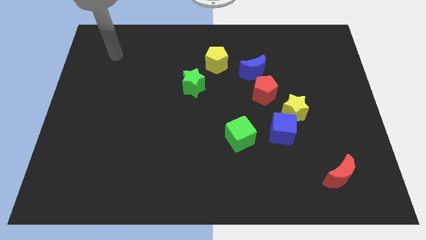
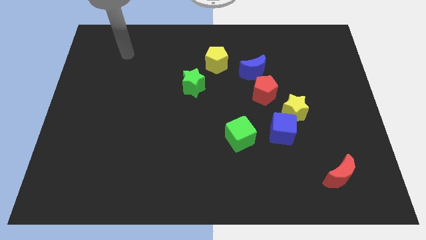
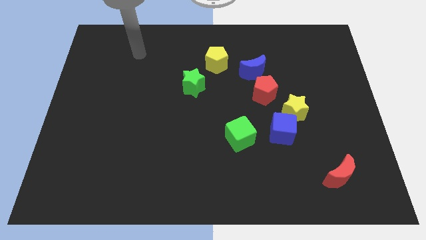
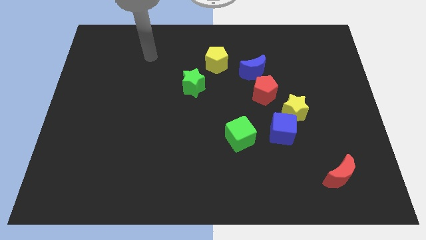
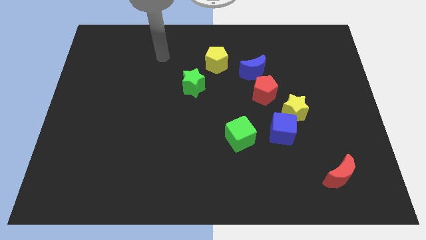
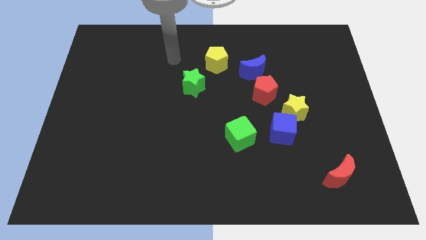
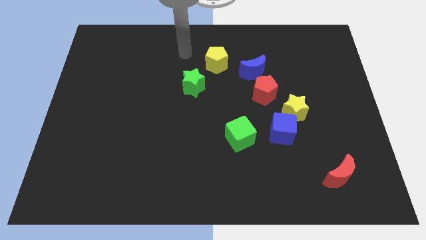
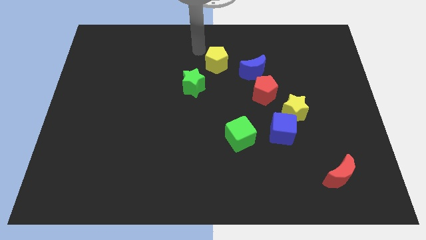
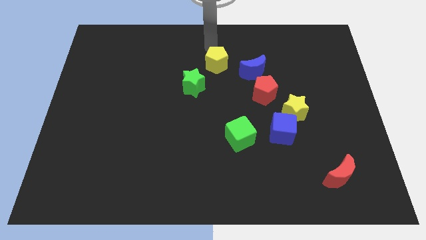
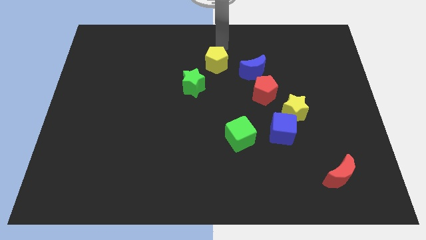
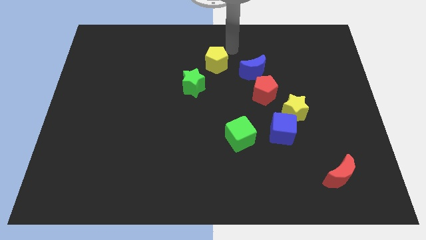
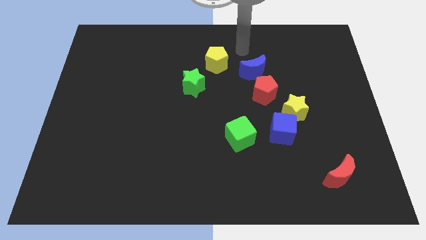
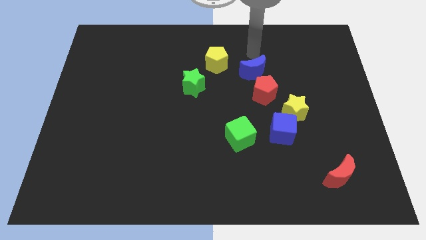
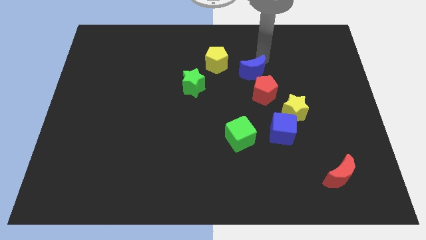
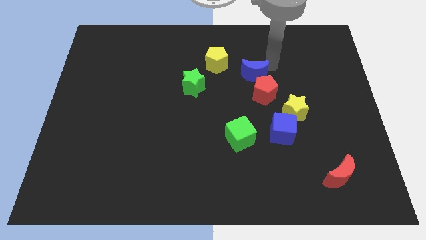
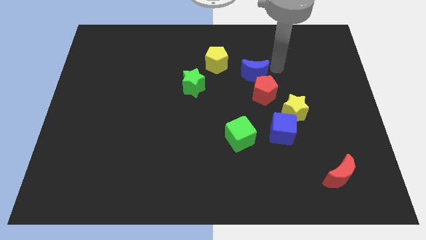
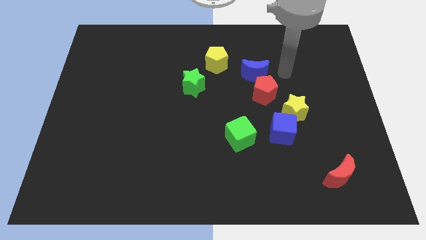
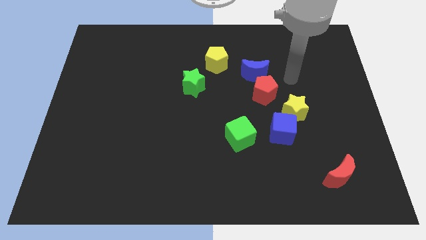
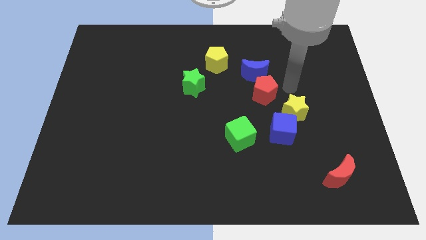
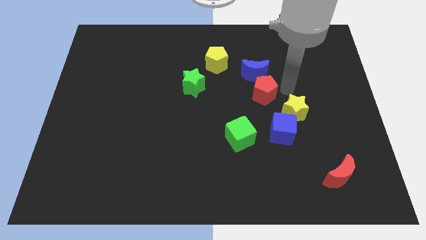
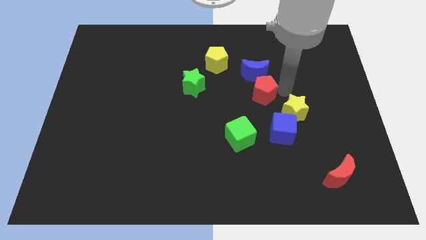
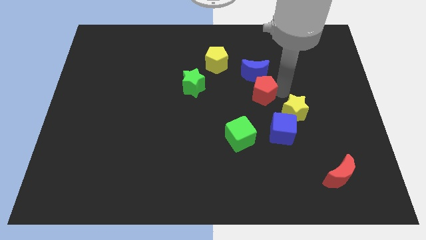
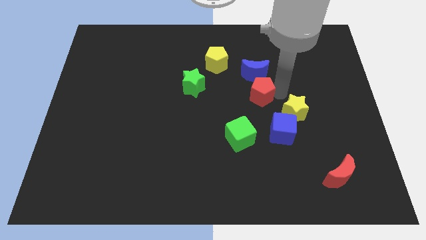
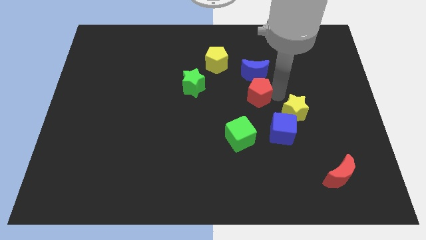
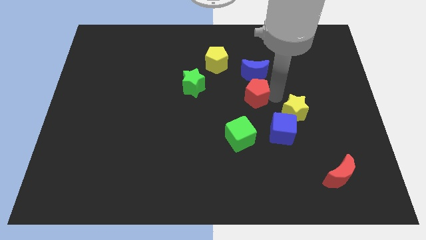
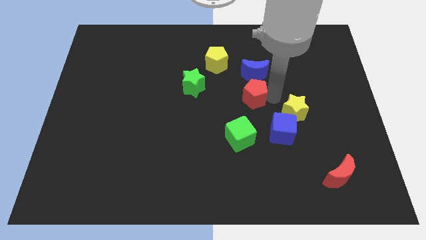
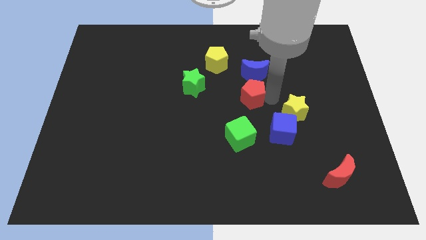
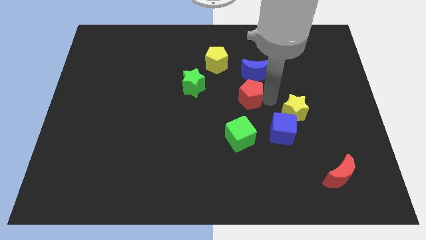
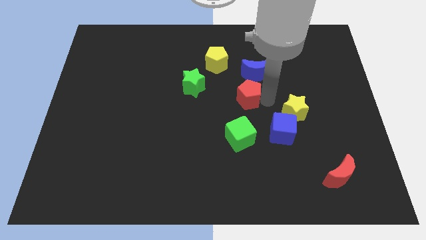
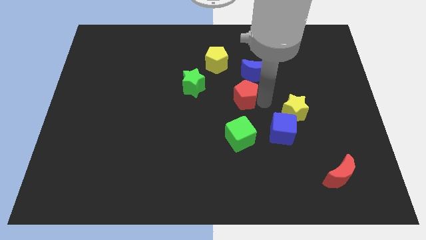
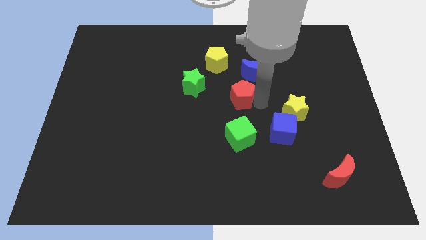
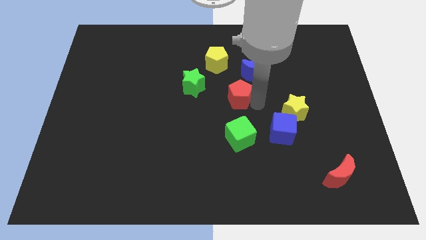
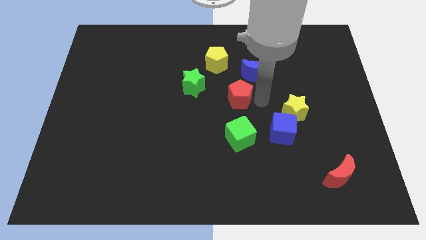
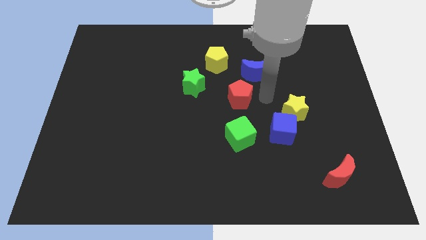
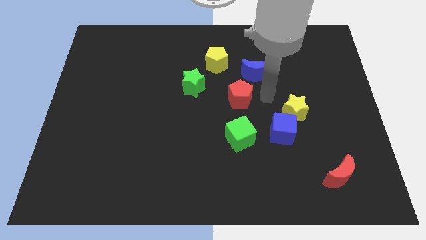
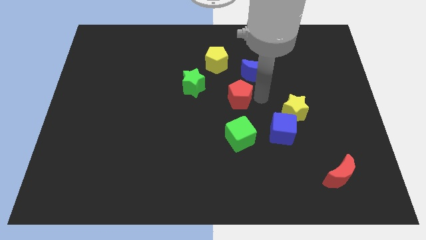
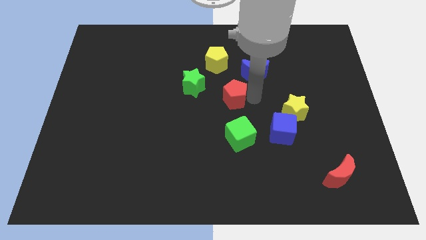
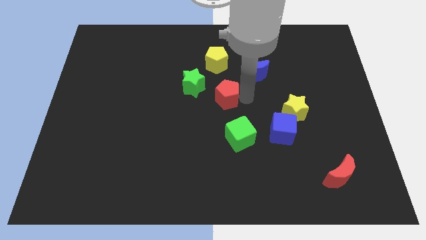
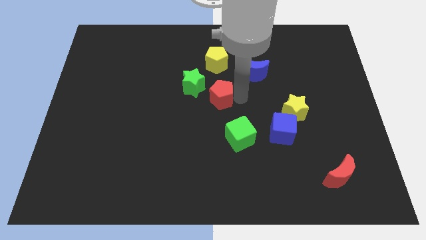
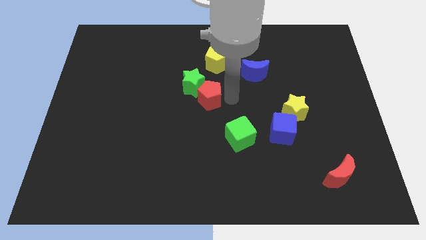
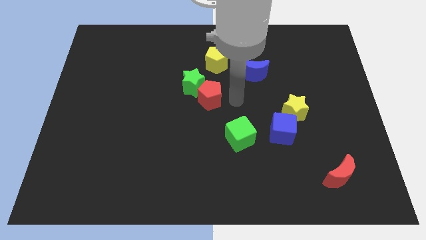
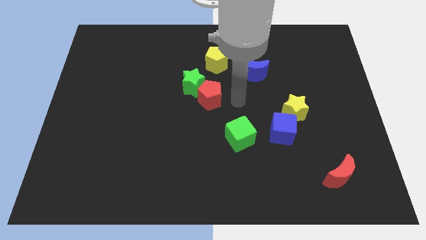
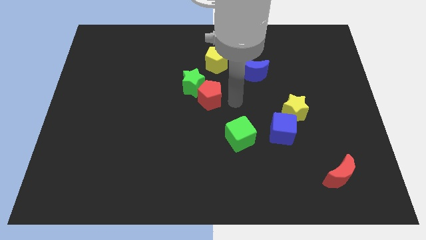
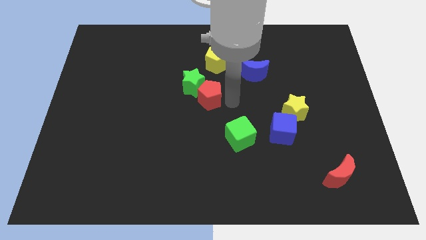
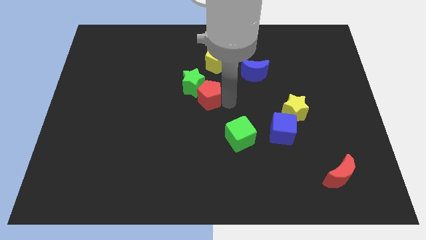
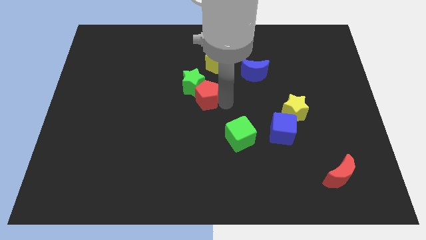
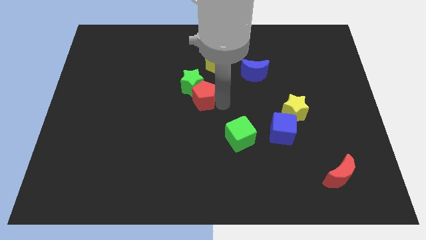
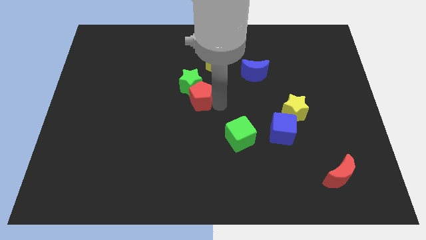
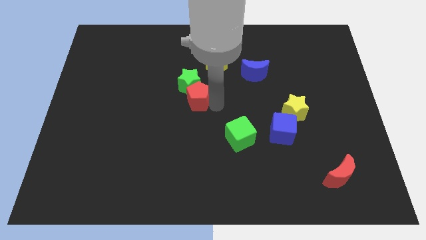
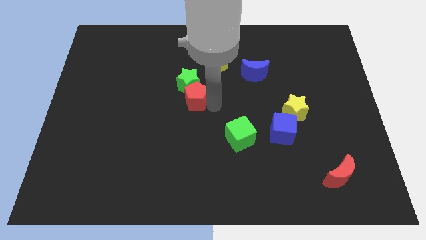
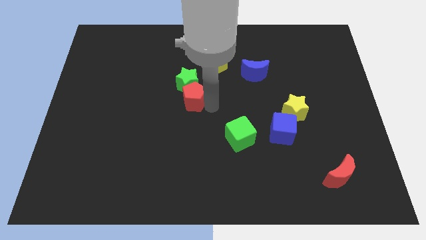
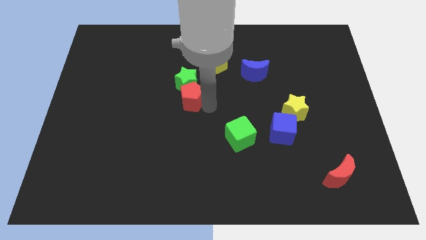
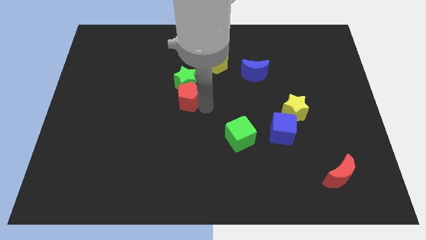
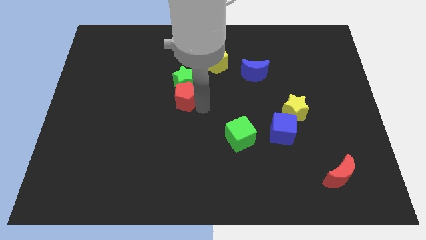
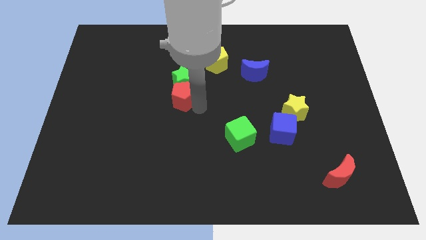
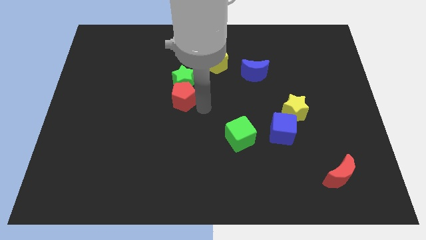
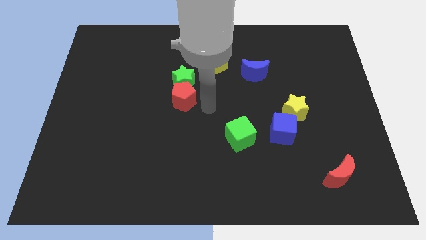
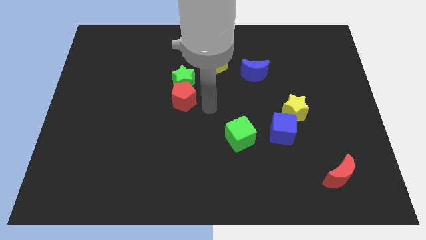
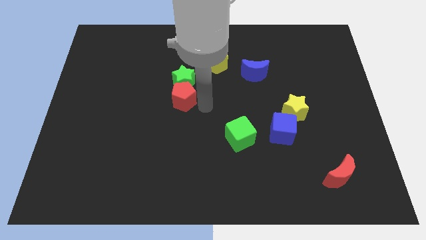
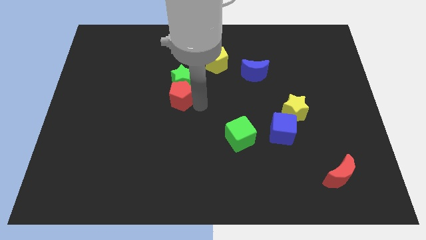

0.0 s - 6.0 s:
move the red pentagon left

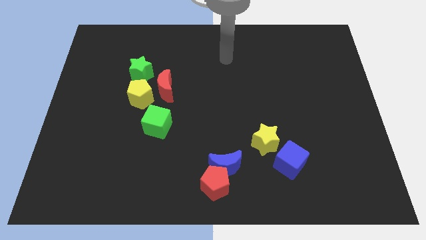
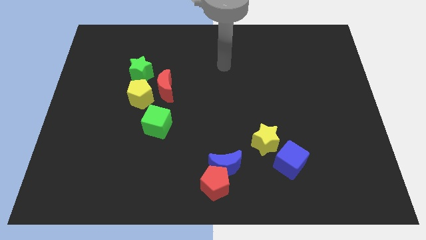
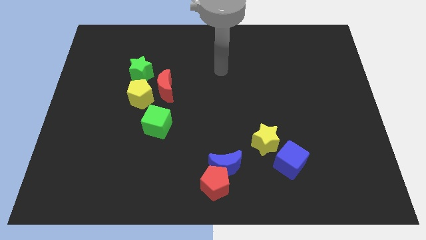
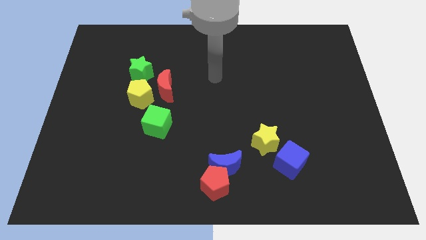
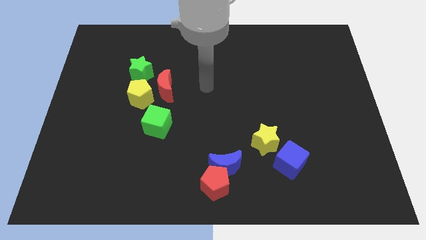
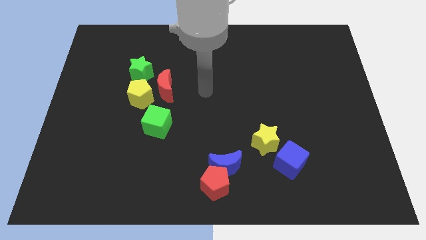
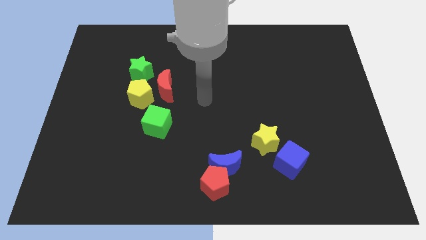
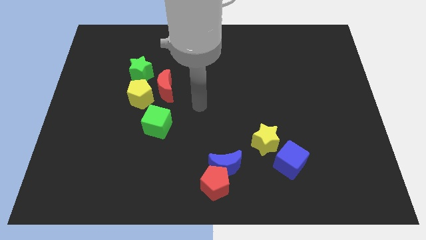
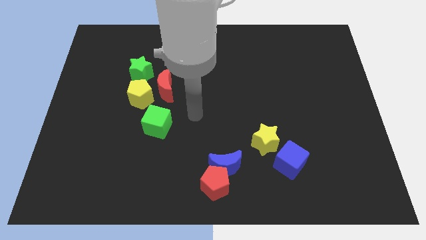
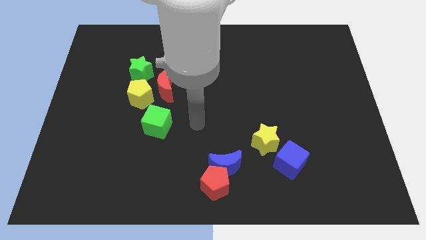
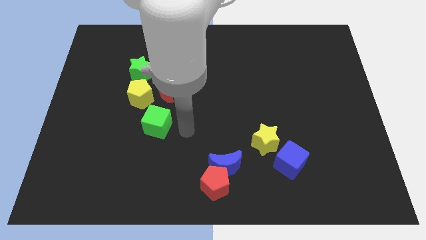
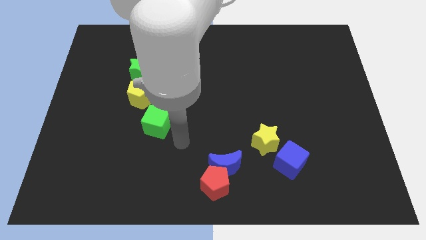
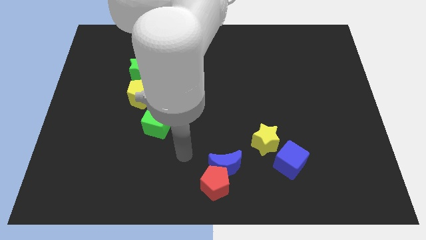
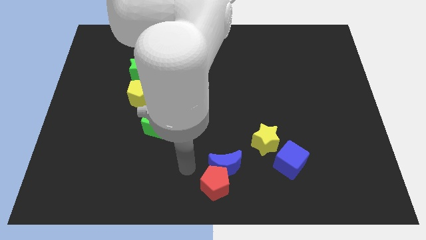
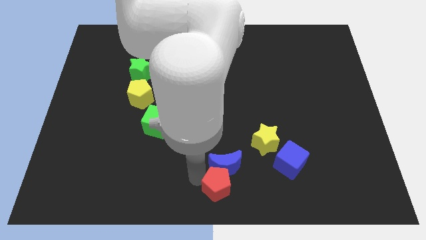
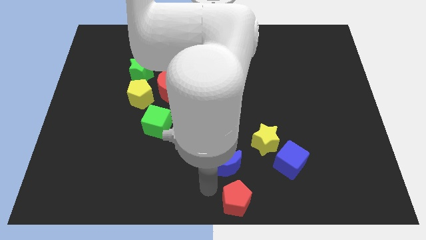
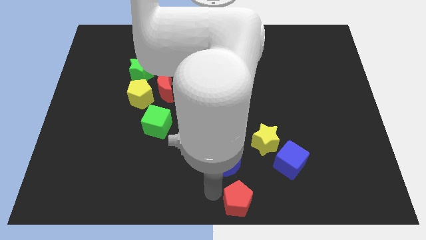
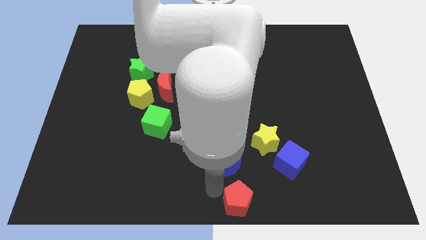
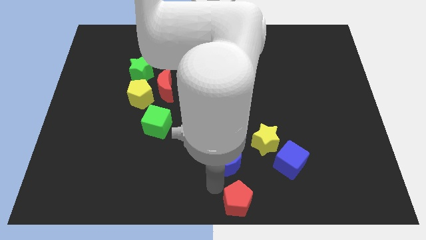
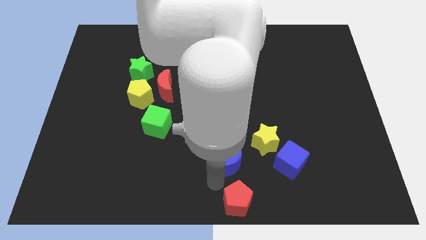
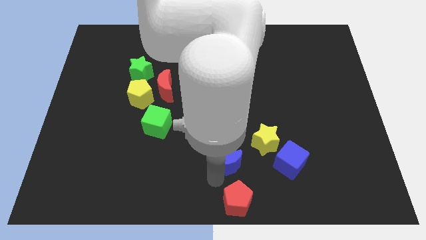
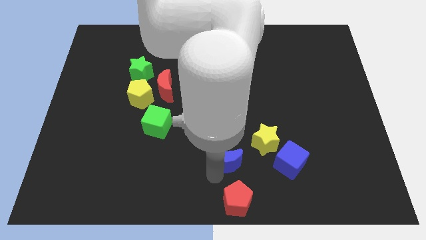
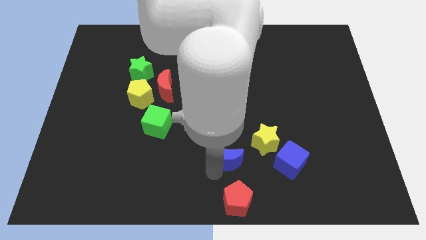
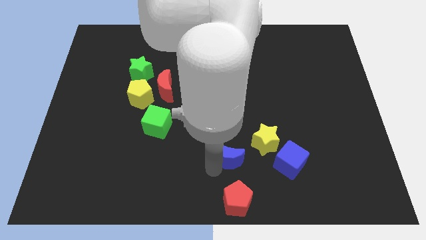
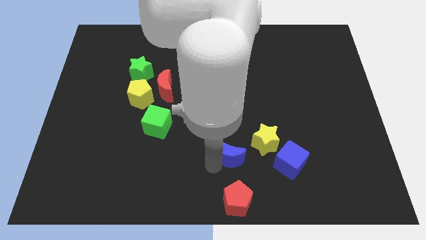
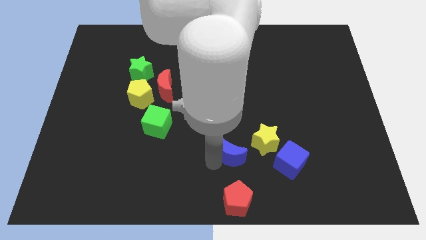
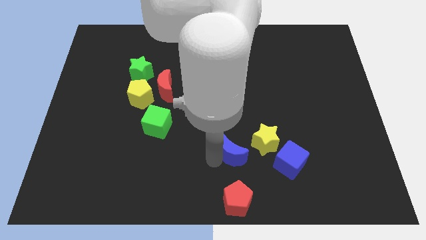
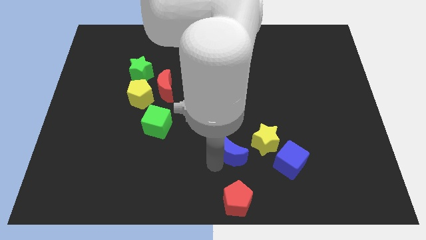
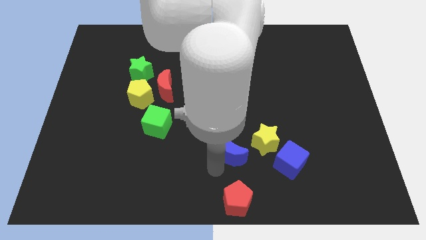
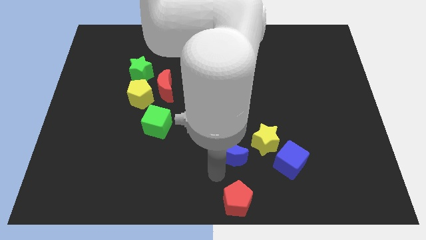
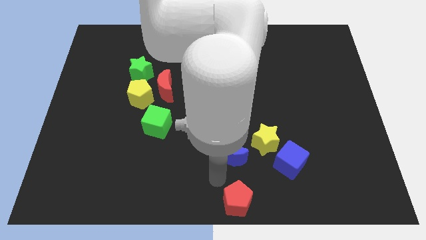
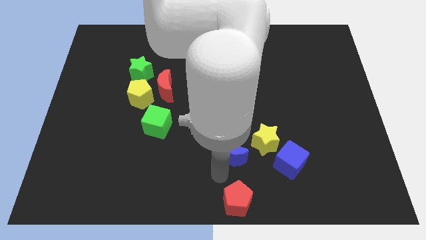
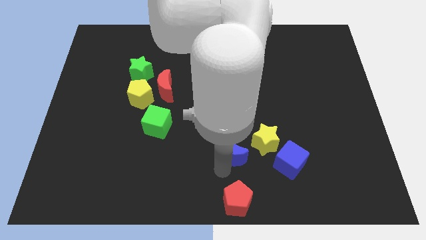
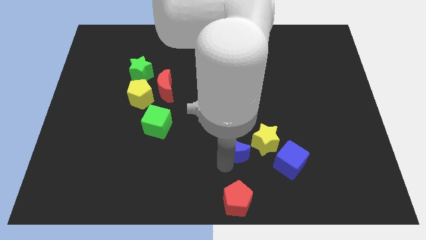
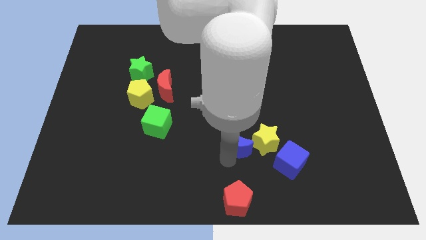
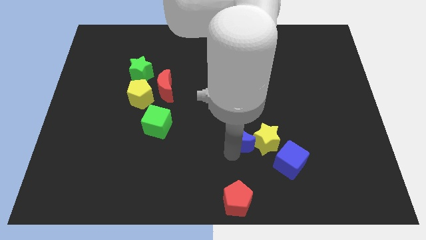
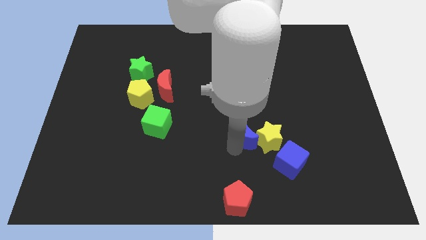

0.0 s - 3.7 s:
slightly slide the blue moon up and right
